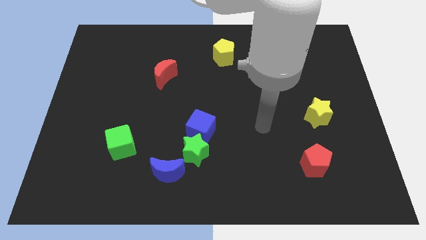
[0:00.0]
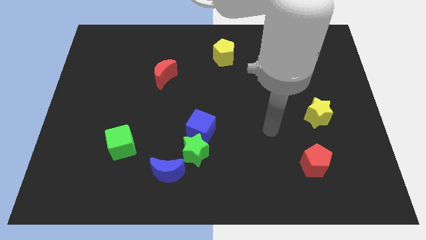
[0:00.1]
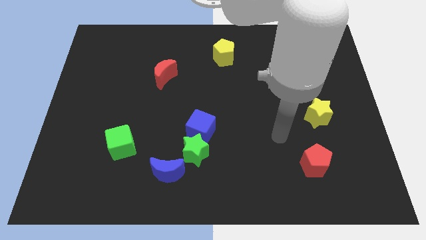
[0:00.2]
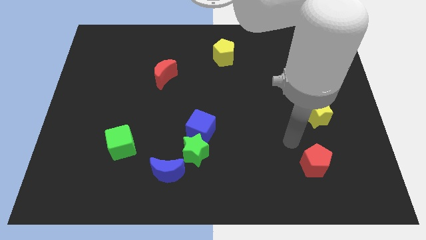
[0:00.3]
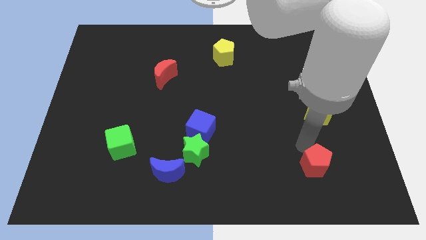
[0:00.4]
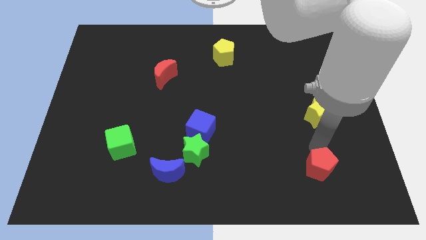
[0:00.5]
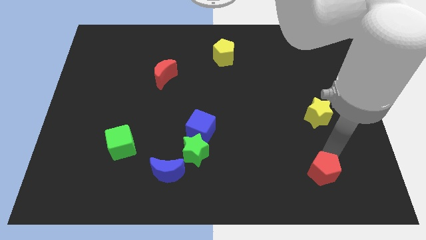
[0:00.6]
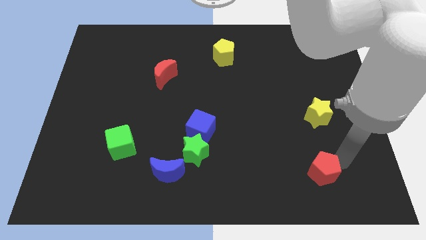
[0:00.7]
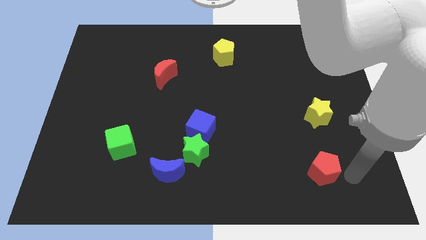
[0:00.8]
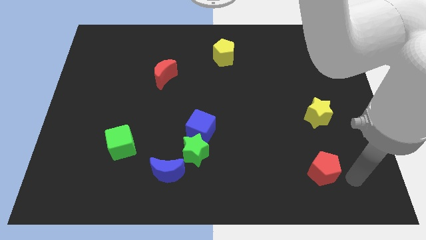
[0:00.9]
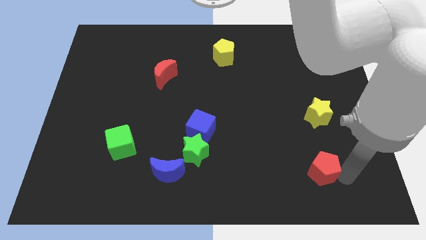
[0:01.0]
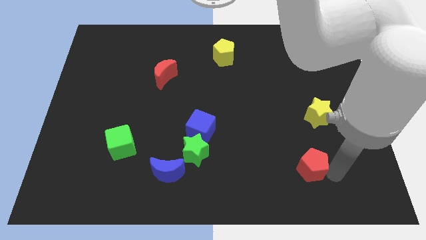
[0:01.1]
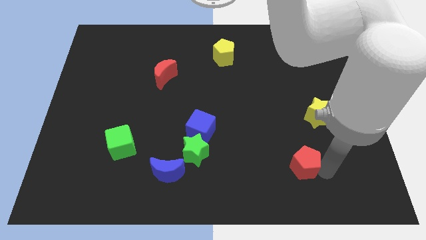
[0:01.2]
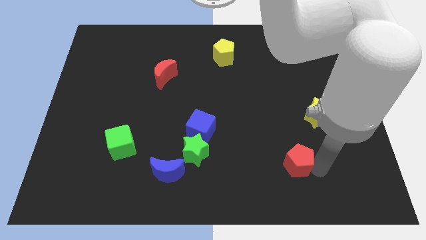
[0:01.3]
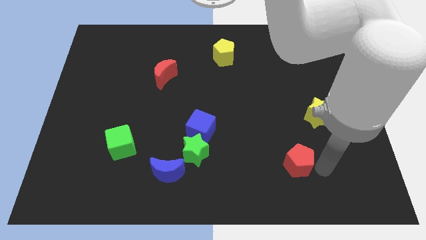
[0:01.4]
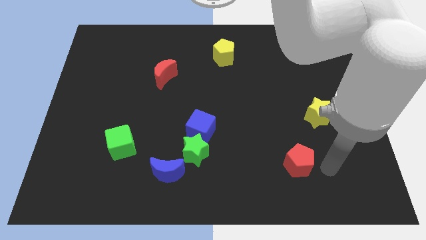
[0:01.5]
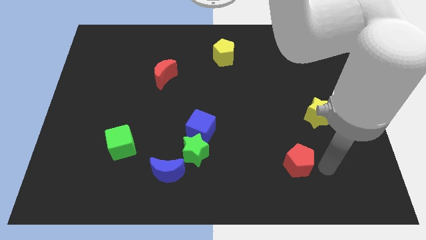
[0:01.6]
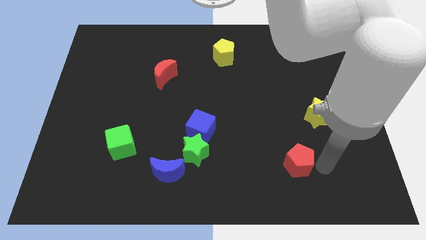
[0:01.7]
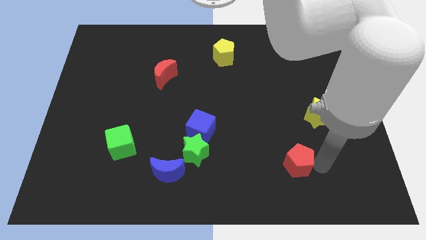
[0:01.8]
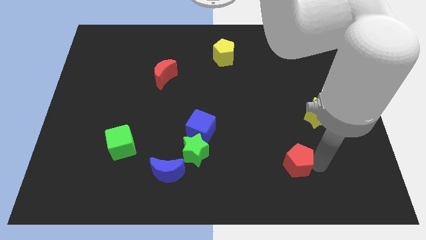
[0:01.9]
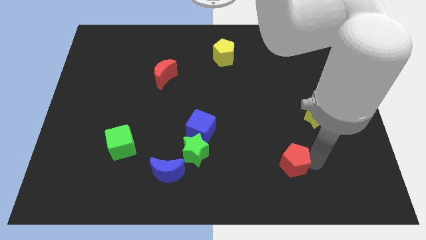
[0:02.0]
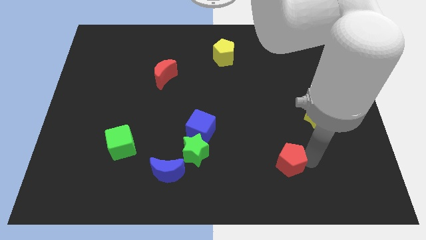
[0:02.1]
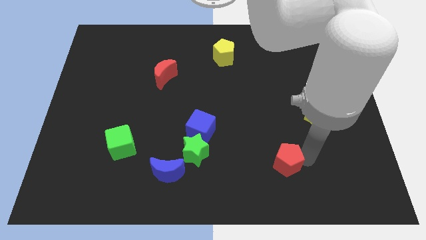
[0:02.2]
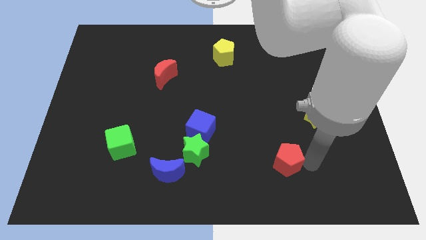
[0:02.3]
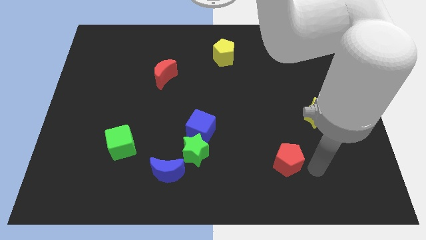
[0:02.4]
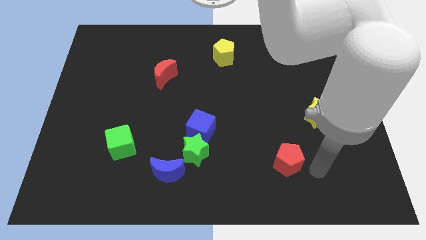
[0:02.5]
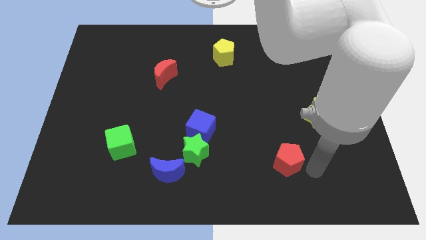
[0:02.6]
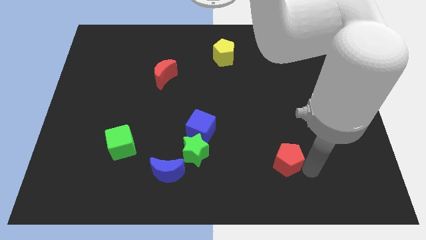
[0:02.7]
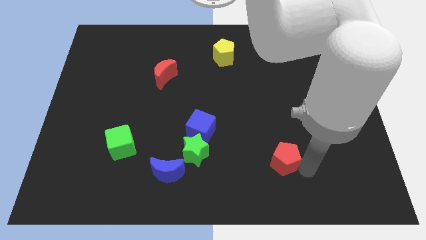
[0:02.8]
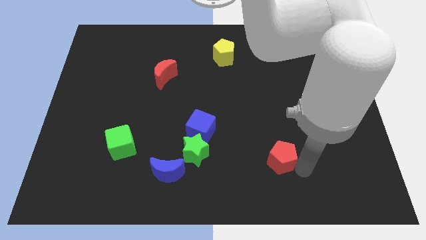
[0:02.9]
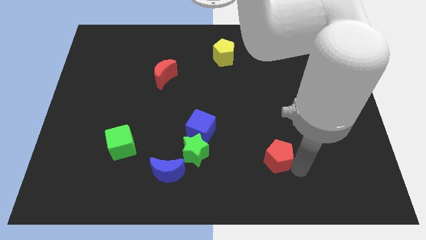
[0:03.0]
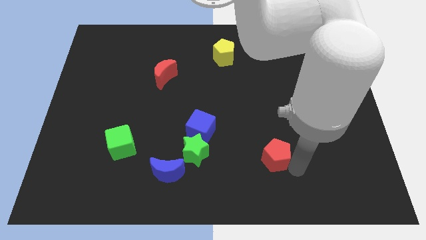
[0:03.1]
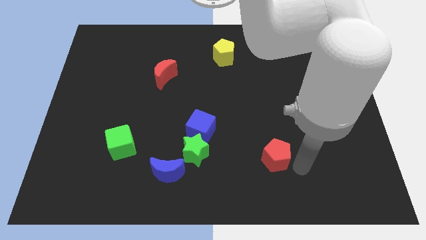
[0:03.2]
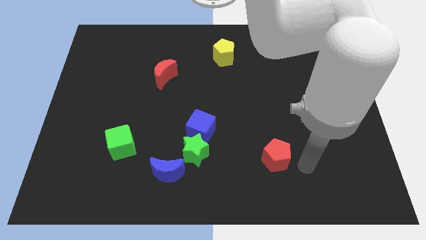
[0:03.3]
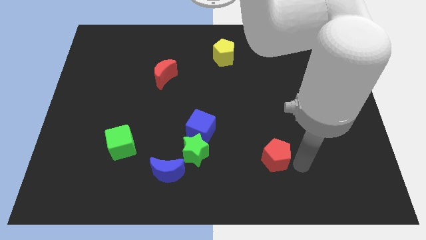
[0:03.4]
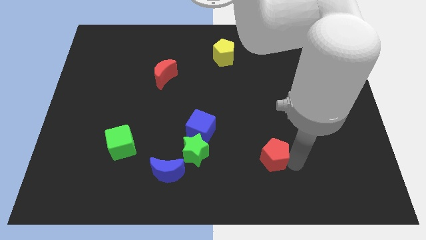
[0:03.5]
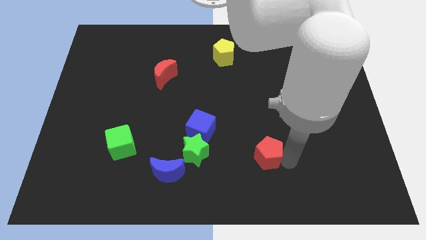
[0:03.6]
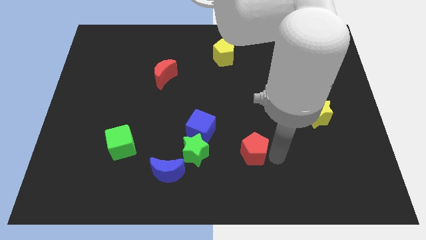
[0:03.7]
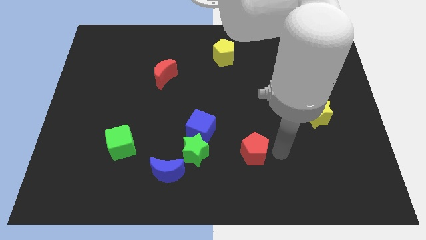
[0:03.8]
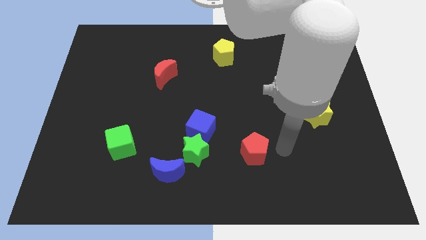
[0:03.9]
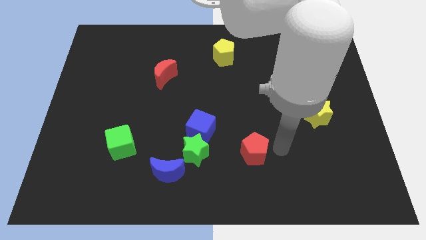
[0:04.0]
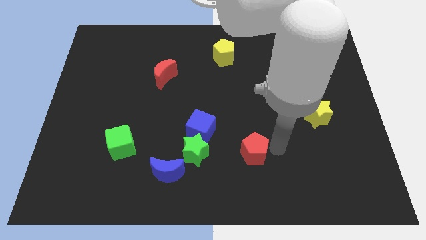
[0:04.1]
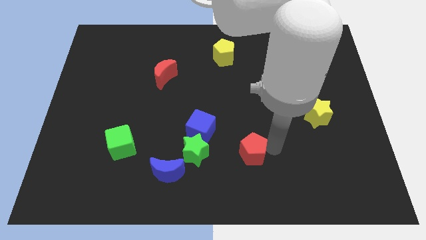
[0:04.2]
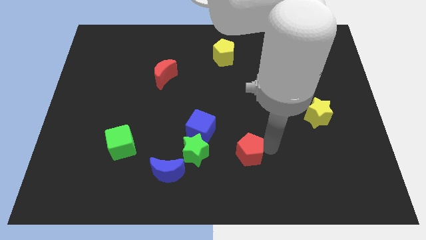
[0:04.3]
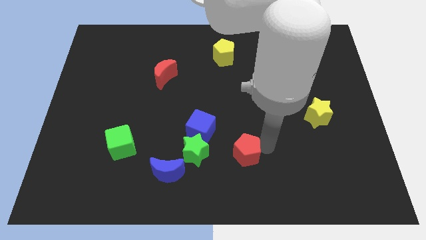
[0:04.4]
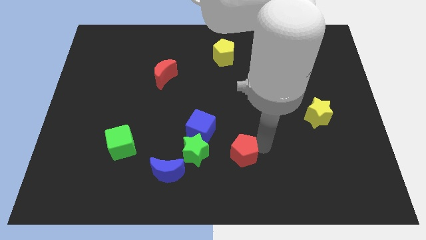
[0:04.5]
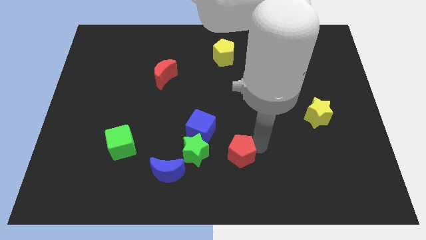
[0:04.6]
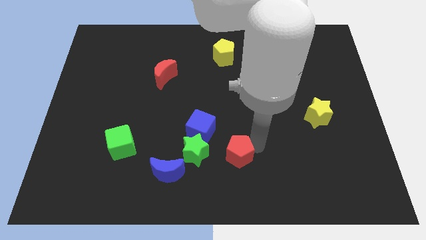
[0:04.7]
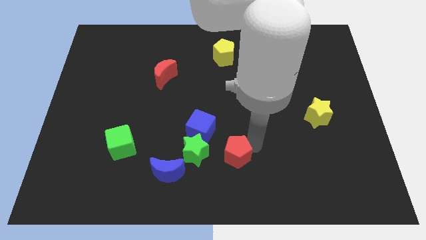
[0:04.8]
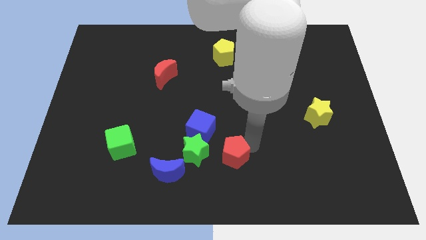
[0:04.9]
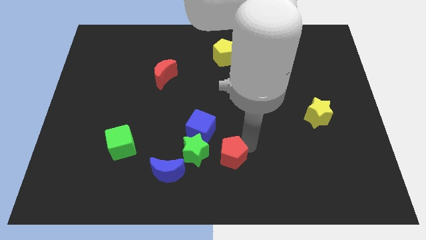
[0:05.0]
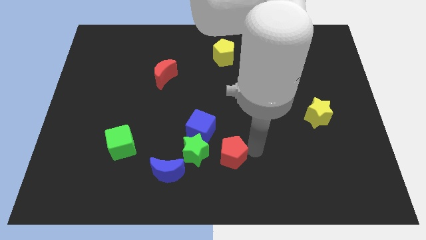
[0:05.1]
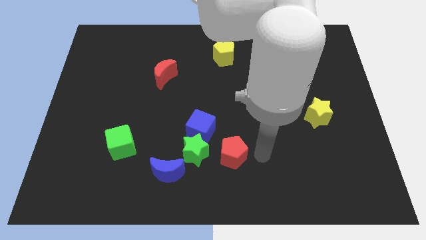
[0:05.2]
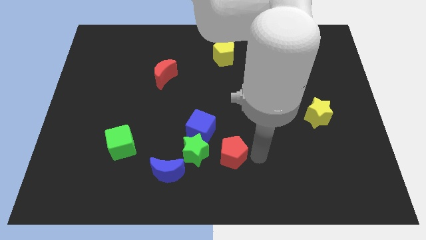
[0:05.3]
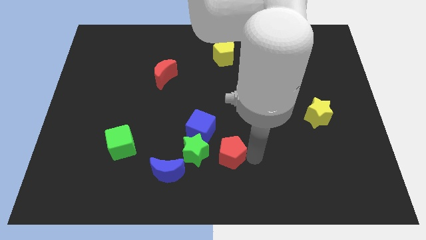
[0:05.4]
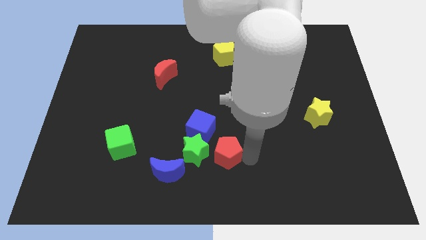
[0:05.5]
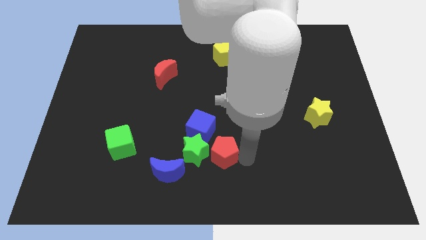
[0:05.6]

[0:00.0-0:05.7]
move the red pentagon towards the green star

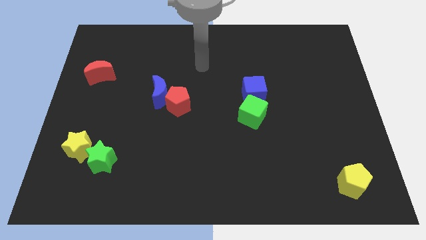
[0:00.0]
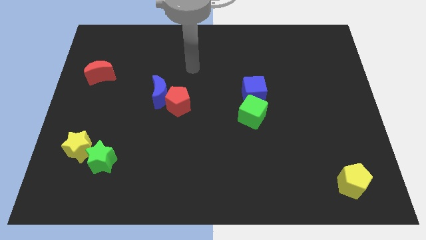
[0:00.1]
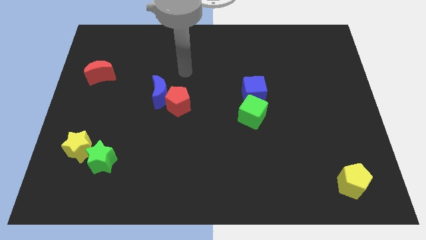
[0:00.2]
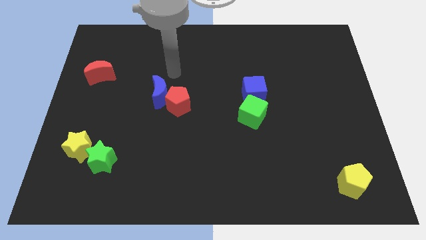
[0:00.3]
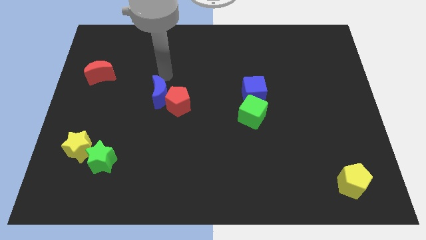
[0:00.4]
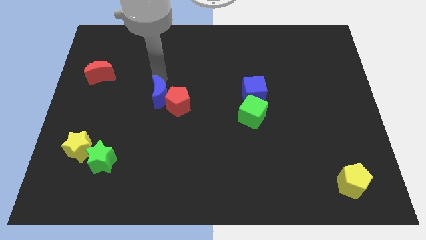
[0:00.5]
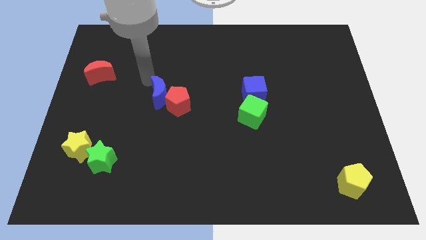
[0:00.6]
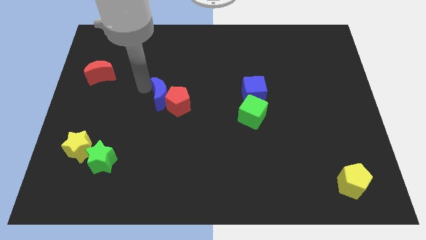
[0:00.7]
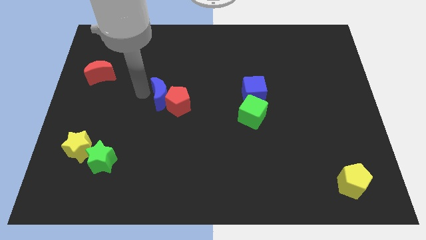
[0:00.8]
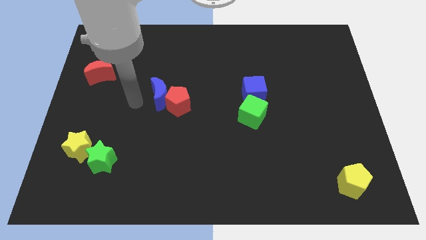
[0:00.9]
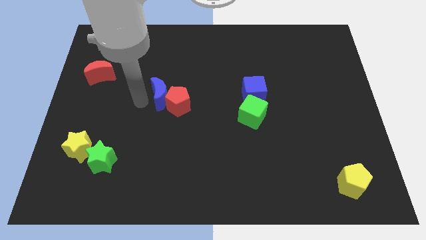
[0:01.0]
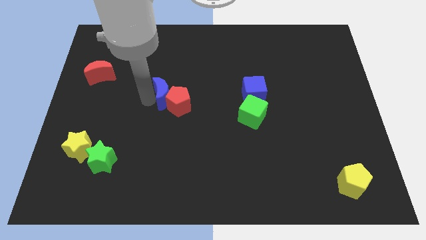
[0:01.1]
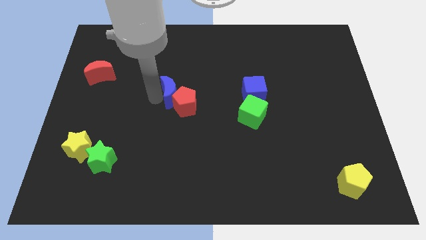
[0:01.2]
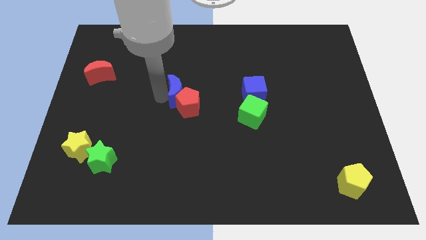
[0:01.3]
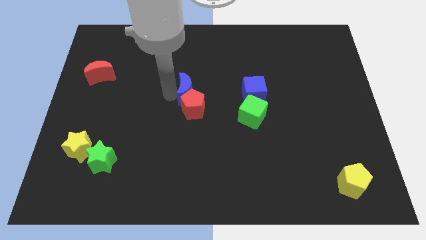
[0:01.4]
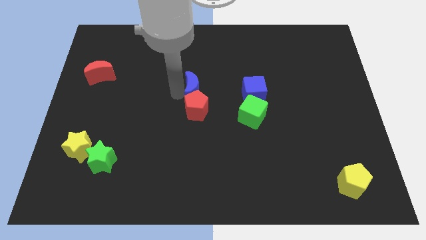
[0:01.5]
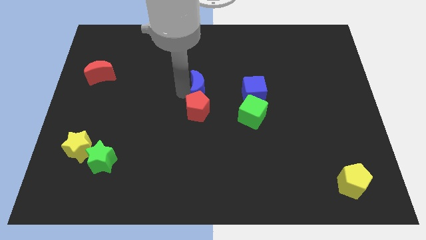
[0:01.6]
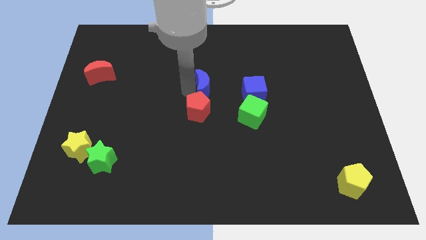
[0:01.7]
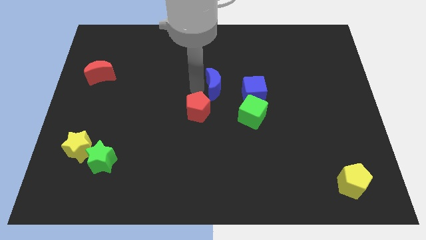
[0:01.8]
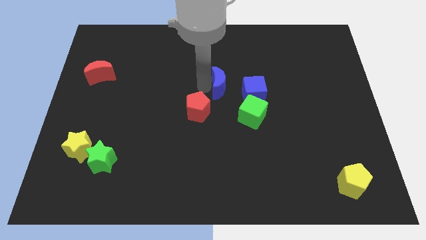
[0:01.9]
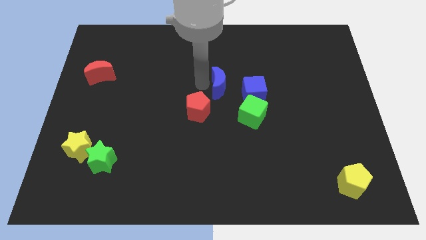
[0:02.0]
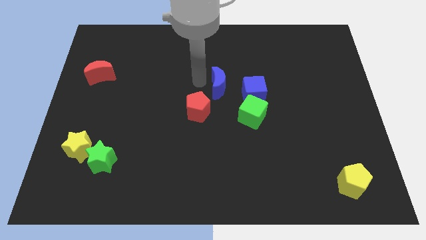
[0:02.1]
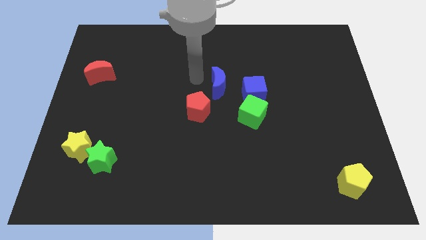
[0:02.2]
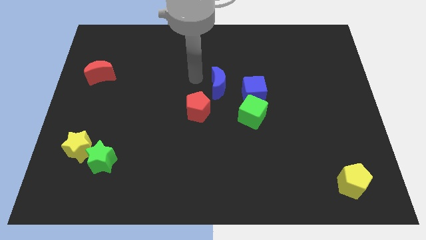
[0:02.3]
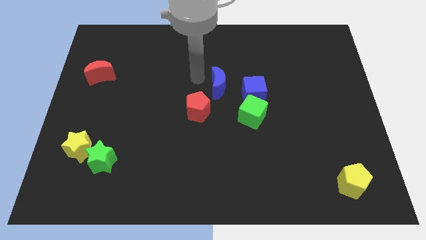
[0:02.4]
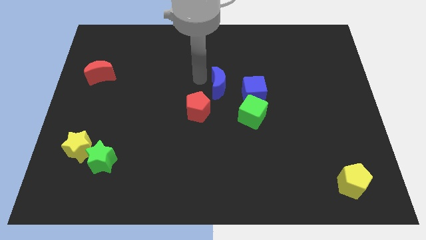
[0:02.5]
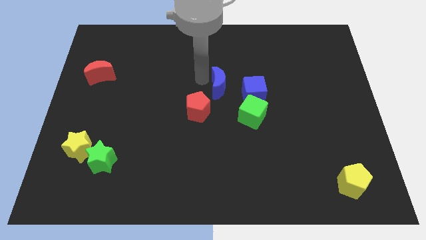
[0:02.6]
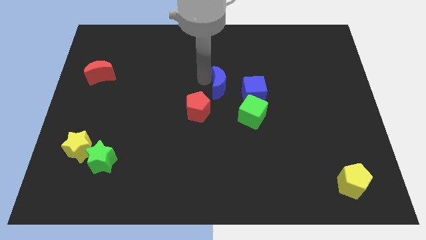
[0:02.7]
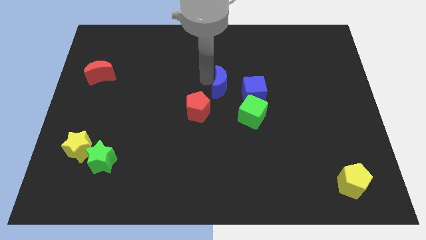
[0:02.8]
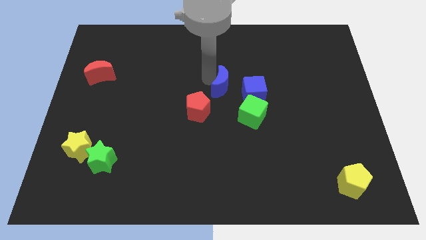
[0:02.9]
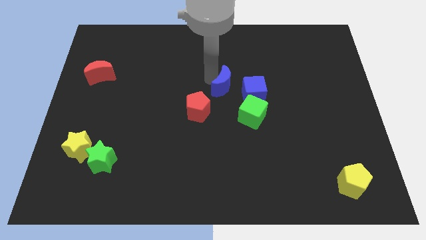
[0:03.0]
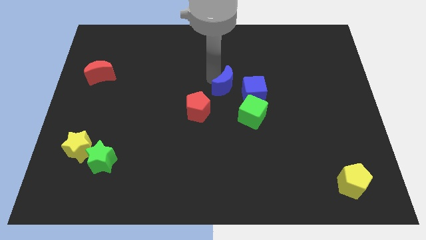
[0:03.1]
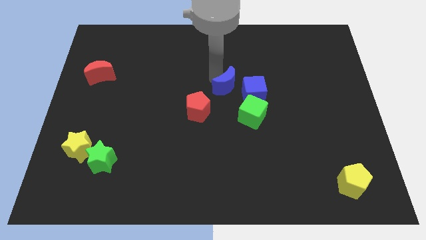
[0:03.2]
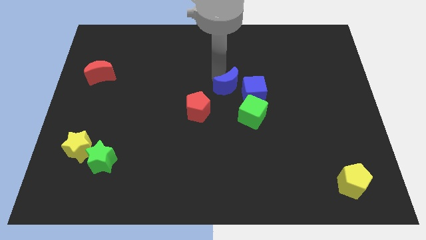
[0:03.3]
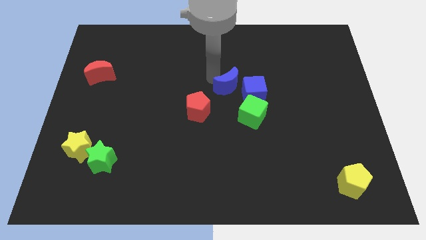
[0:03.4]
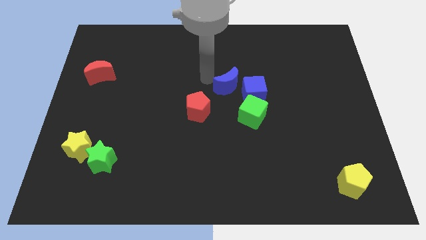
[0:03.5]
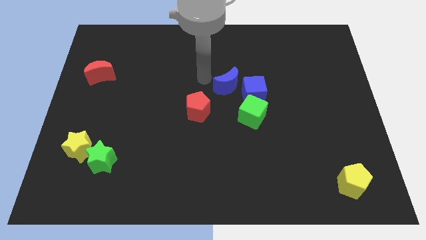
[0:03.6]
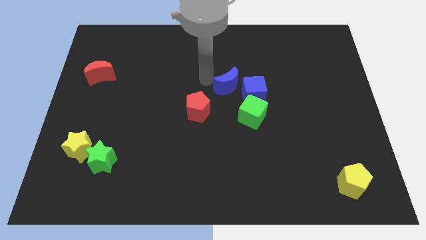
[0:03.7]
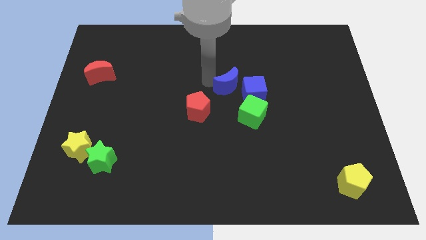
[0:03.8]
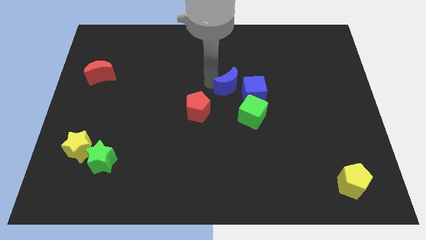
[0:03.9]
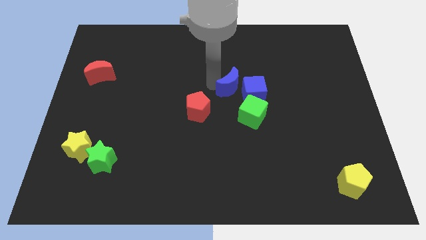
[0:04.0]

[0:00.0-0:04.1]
put the blue moon to the blue cube
